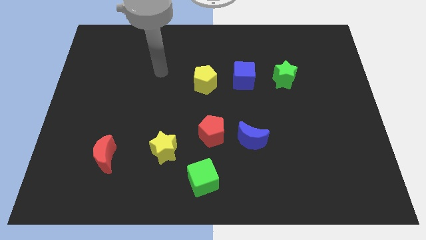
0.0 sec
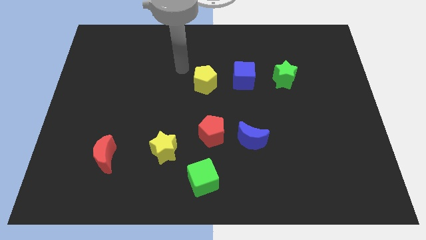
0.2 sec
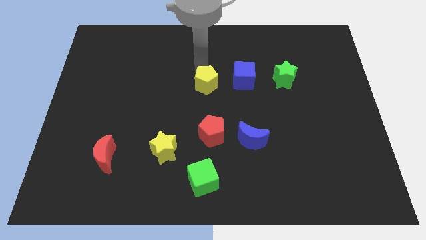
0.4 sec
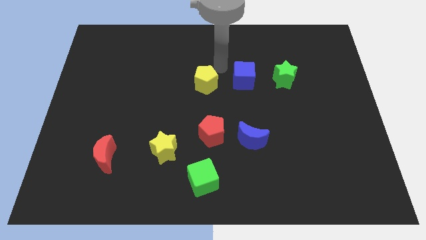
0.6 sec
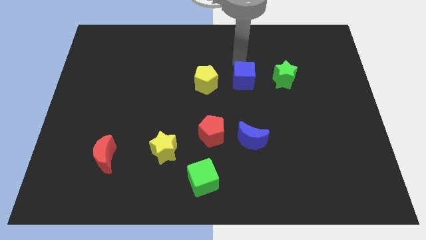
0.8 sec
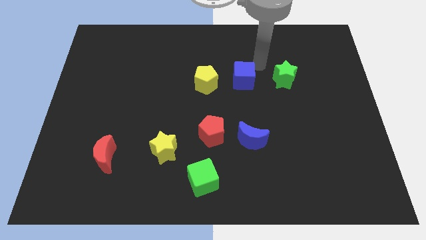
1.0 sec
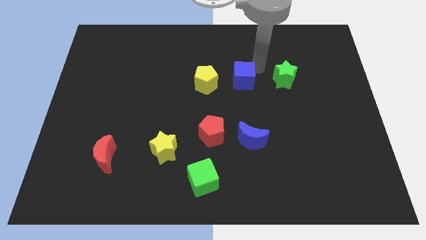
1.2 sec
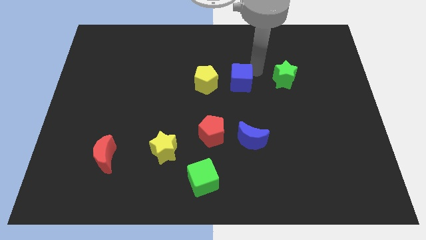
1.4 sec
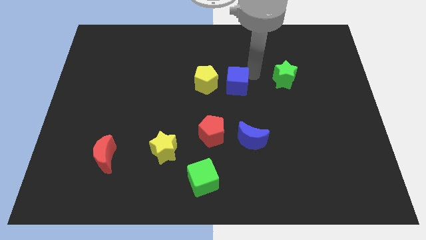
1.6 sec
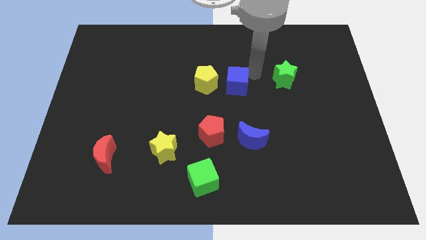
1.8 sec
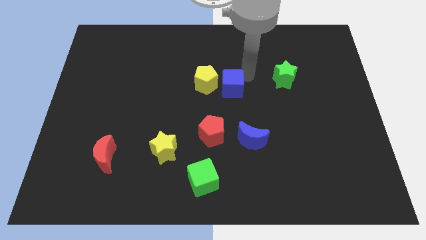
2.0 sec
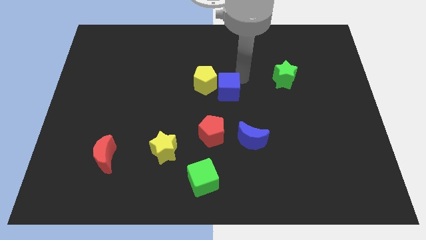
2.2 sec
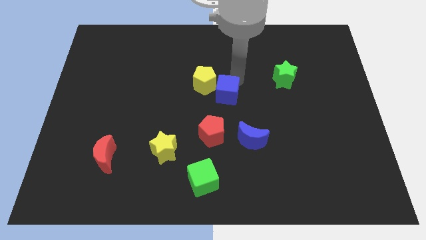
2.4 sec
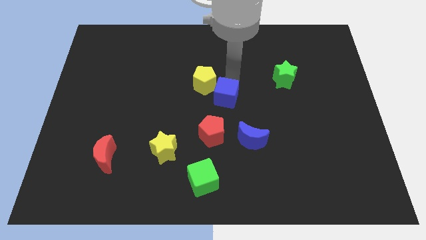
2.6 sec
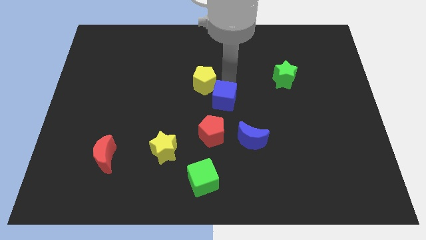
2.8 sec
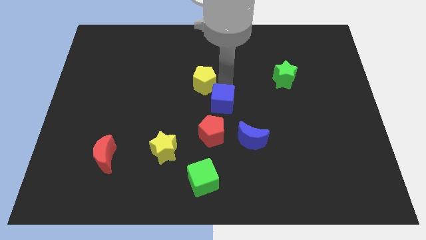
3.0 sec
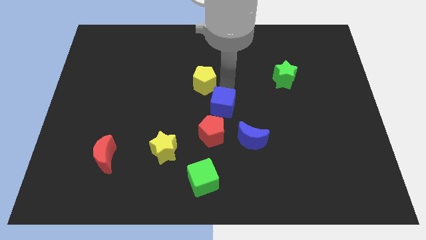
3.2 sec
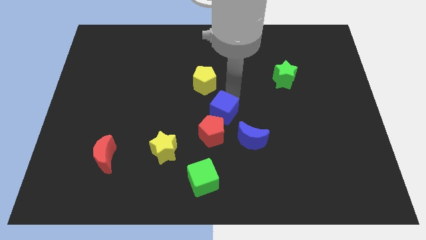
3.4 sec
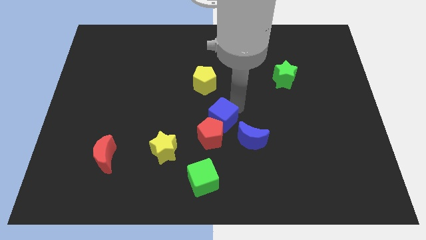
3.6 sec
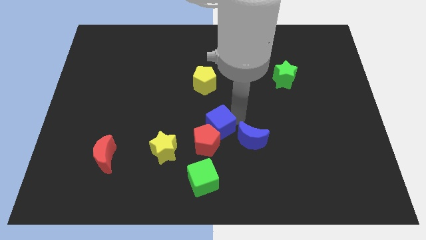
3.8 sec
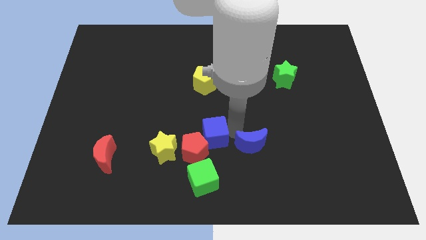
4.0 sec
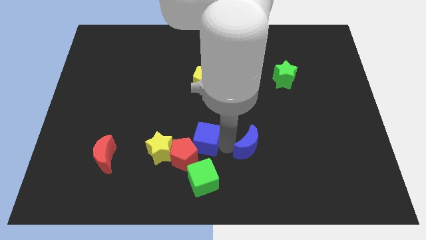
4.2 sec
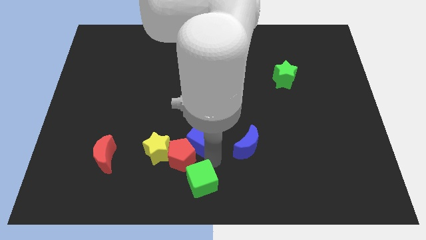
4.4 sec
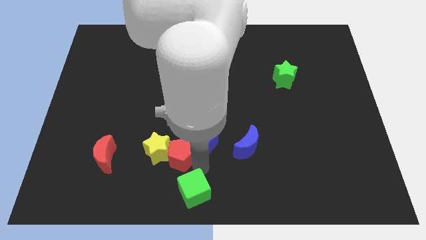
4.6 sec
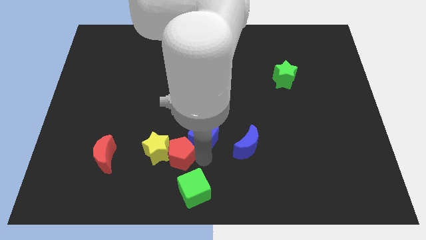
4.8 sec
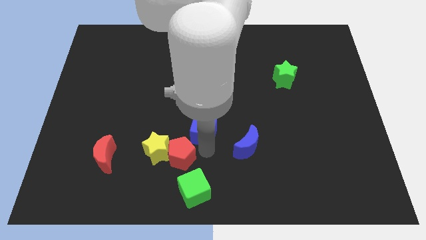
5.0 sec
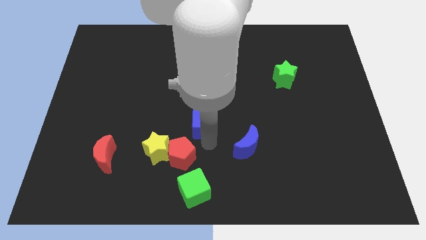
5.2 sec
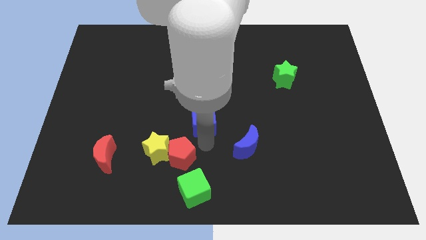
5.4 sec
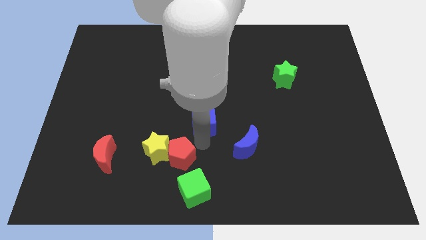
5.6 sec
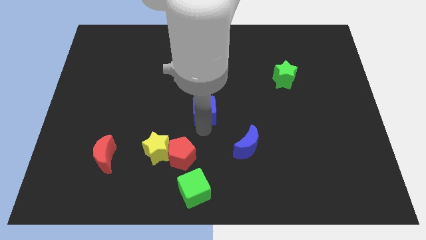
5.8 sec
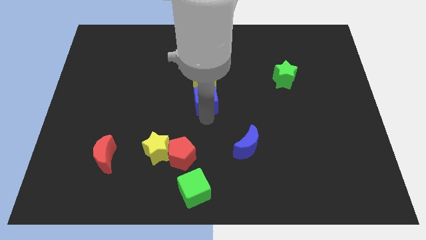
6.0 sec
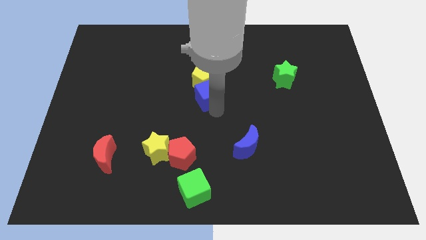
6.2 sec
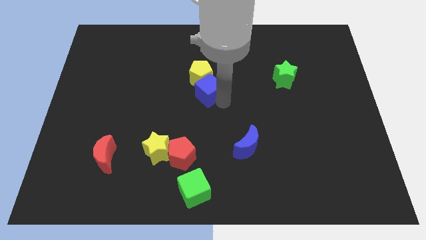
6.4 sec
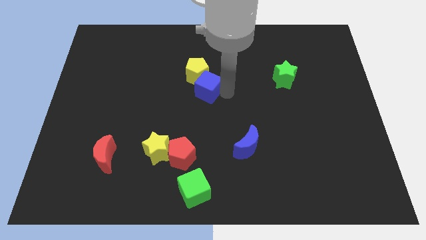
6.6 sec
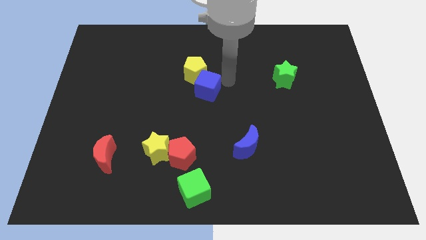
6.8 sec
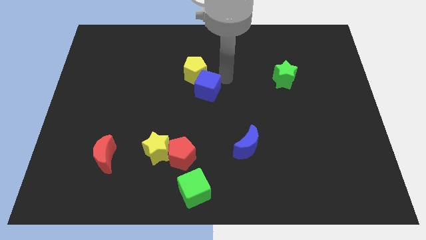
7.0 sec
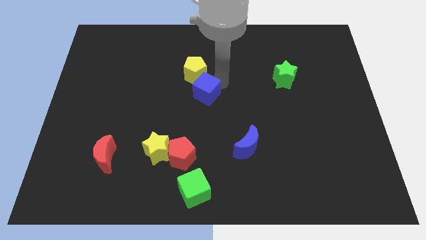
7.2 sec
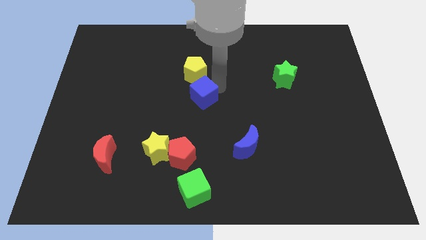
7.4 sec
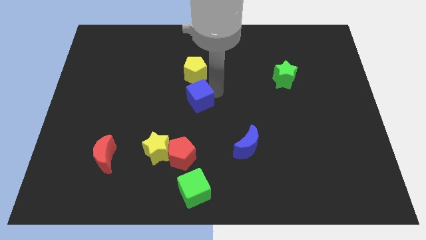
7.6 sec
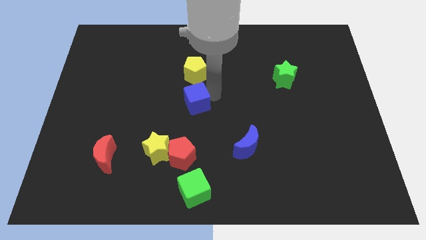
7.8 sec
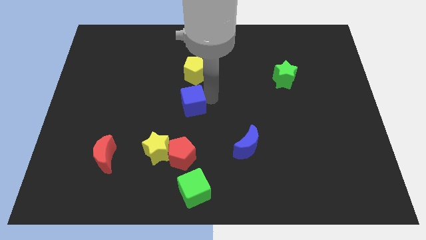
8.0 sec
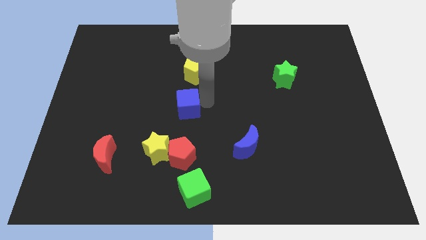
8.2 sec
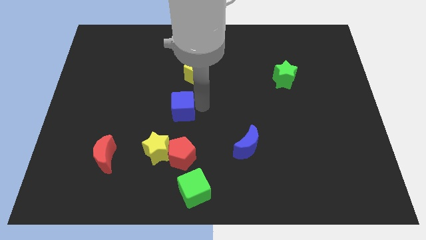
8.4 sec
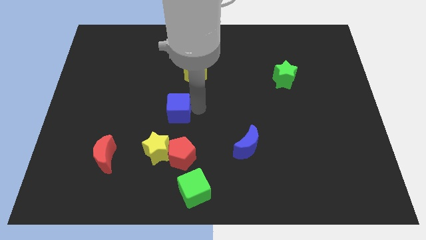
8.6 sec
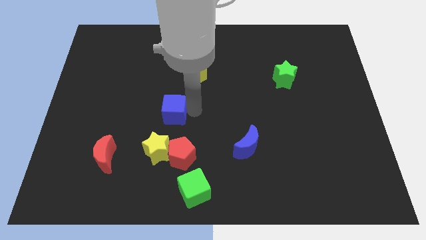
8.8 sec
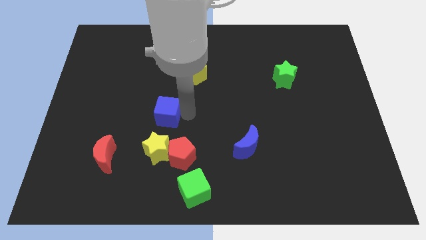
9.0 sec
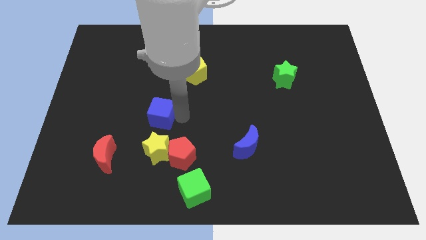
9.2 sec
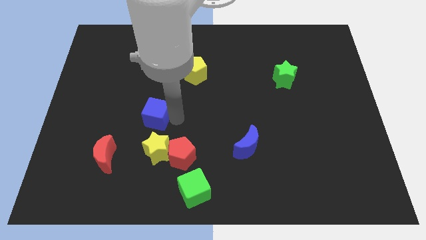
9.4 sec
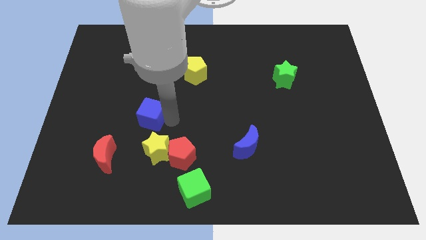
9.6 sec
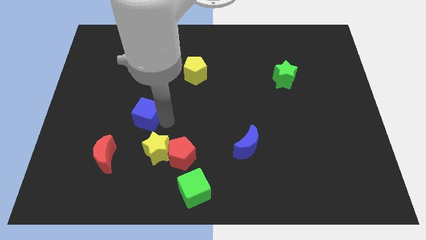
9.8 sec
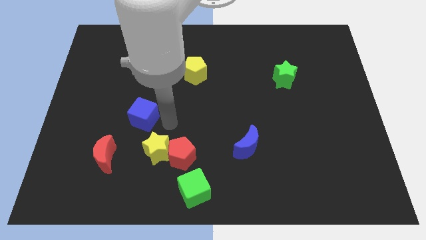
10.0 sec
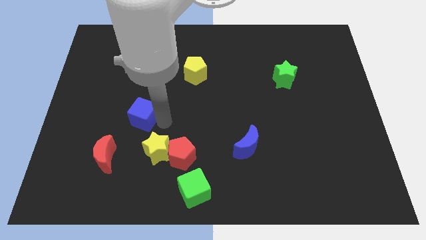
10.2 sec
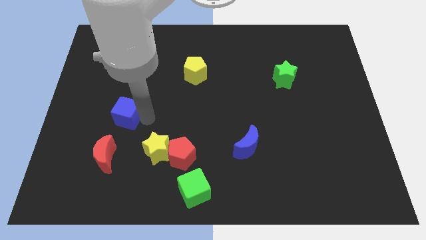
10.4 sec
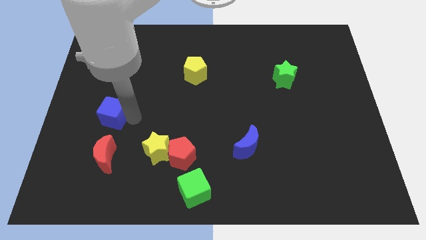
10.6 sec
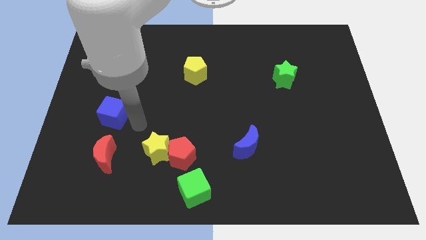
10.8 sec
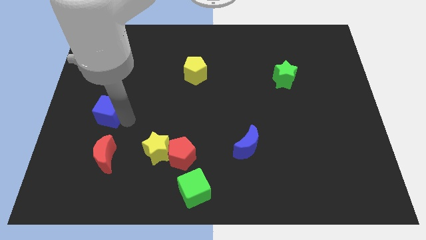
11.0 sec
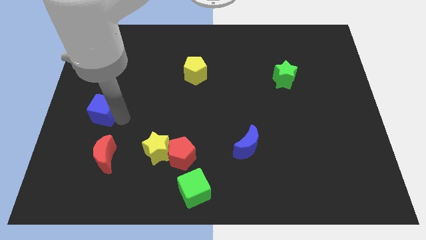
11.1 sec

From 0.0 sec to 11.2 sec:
slide the blue cube to the center left
